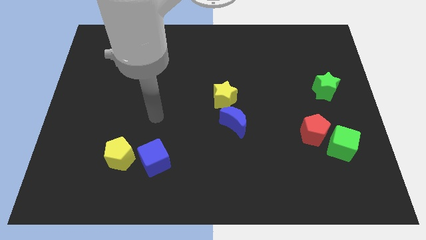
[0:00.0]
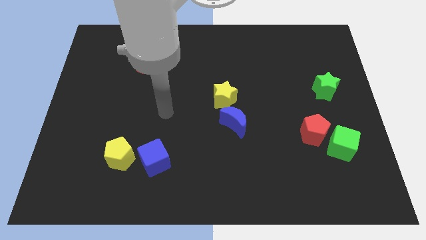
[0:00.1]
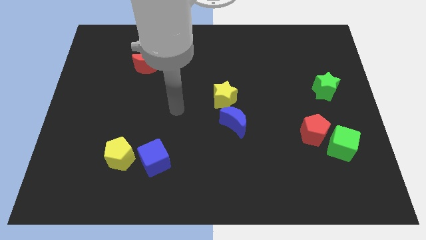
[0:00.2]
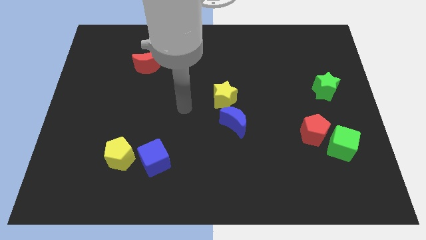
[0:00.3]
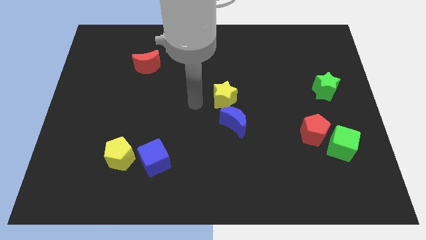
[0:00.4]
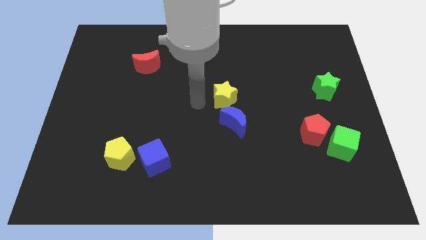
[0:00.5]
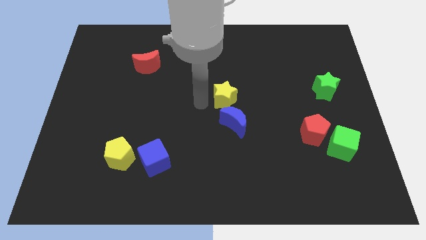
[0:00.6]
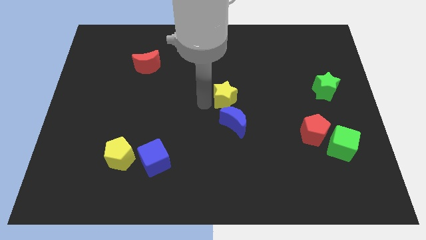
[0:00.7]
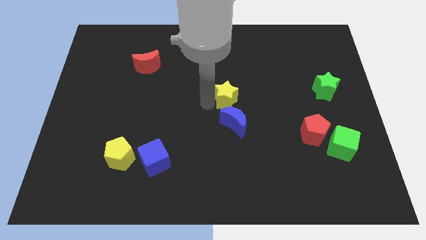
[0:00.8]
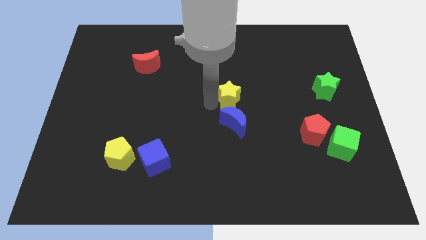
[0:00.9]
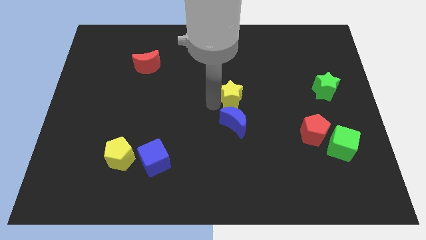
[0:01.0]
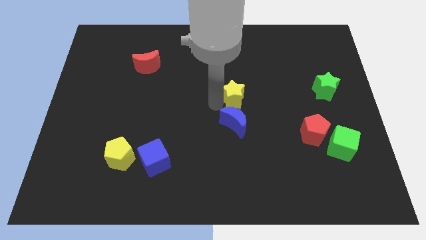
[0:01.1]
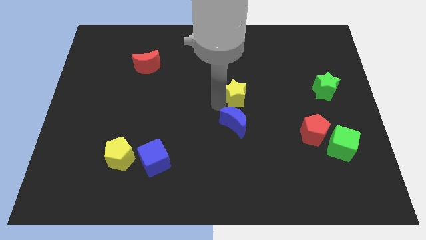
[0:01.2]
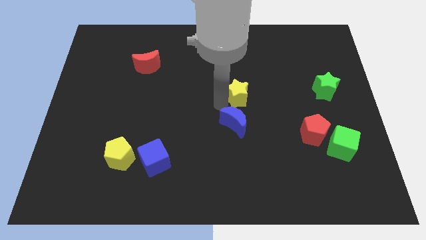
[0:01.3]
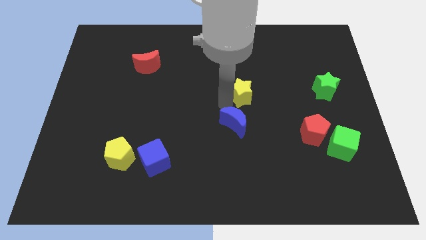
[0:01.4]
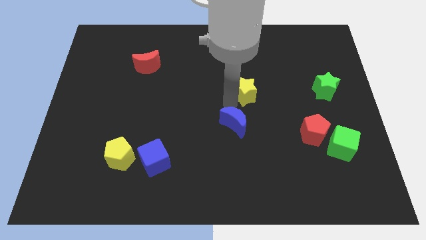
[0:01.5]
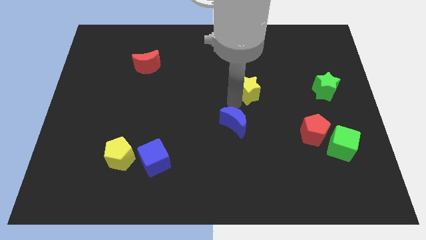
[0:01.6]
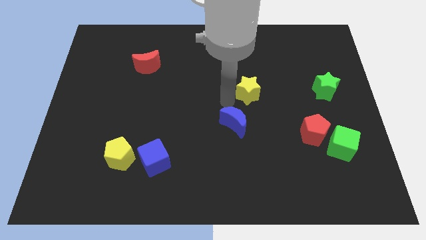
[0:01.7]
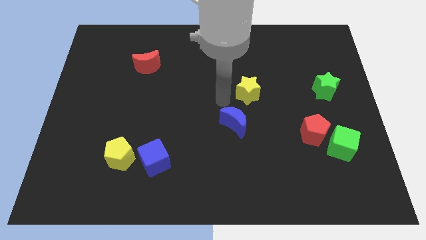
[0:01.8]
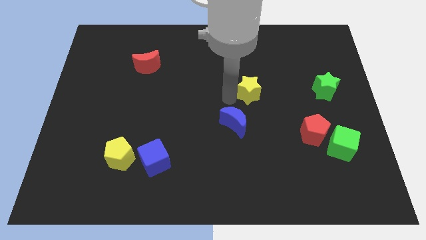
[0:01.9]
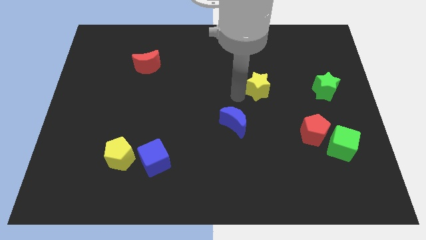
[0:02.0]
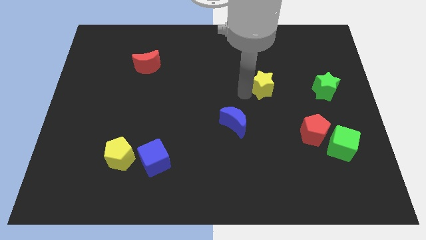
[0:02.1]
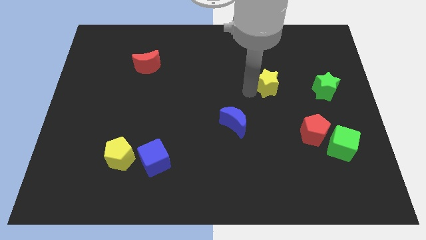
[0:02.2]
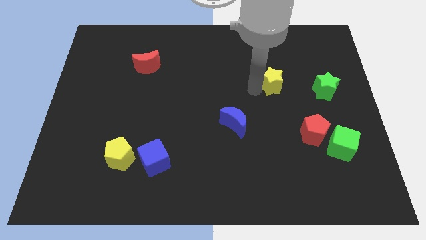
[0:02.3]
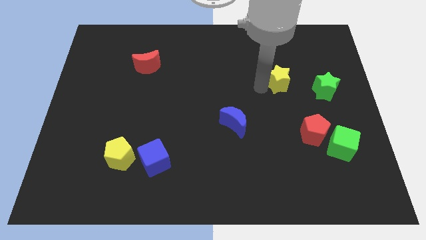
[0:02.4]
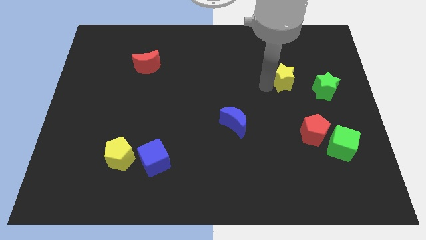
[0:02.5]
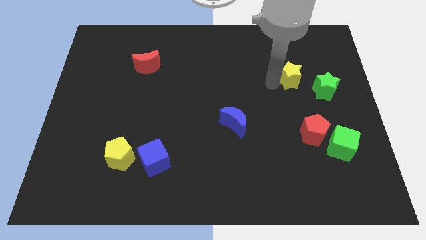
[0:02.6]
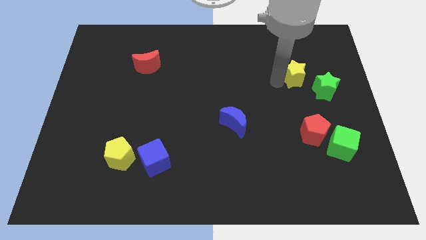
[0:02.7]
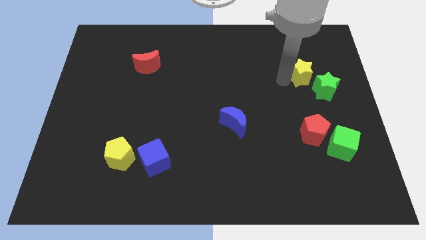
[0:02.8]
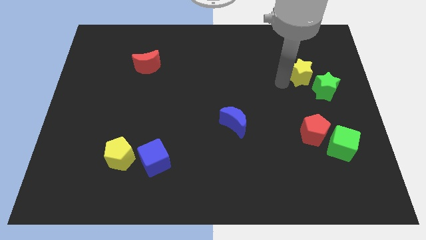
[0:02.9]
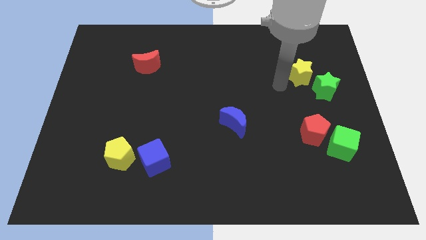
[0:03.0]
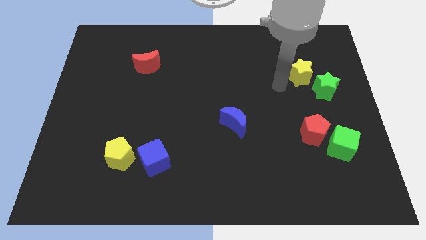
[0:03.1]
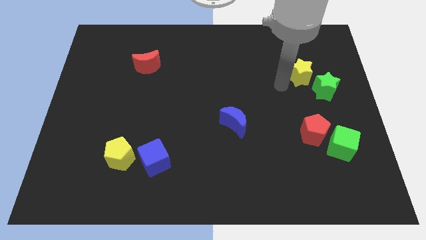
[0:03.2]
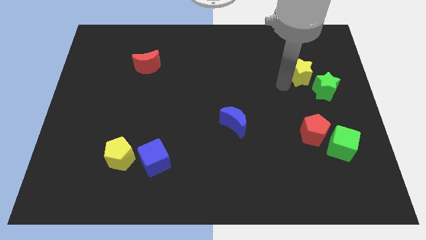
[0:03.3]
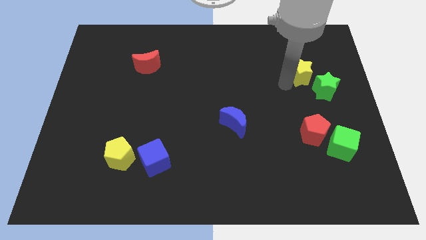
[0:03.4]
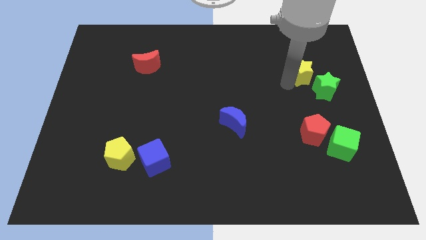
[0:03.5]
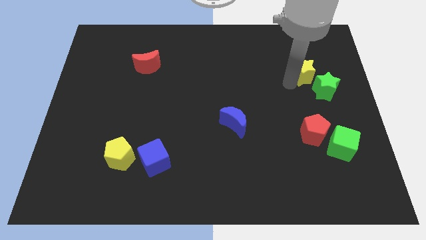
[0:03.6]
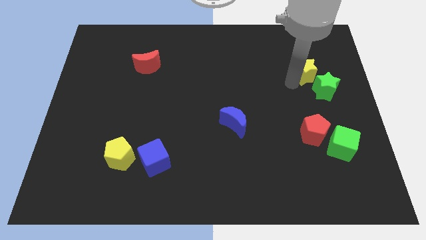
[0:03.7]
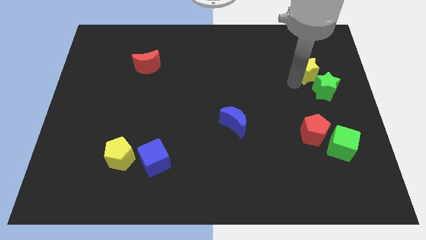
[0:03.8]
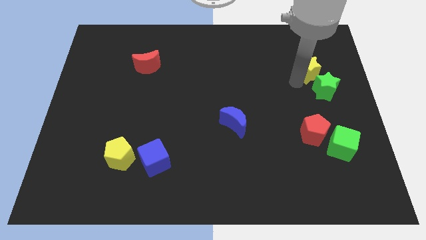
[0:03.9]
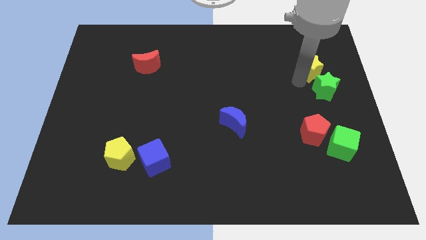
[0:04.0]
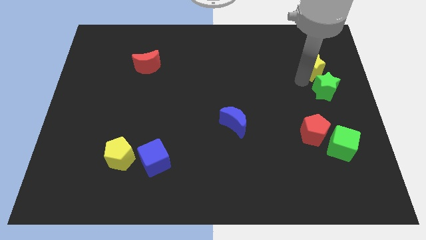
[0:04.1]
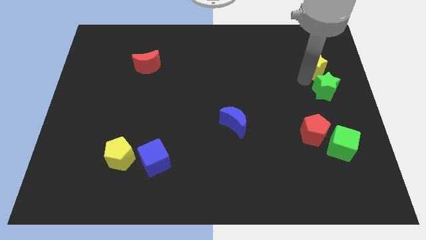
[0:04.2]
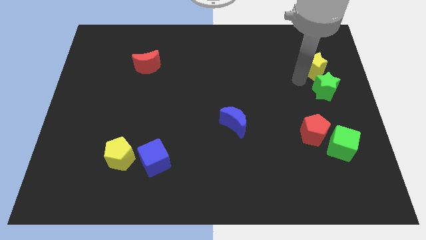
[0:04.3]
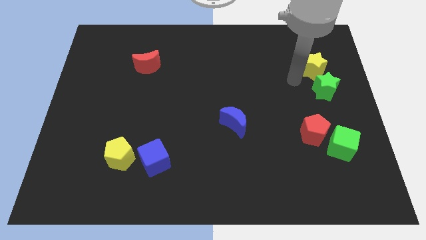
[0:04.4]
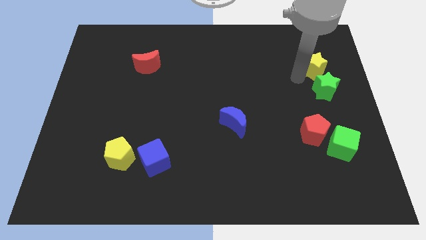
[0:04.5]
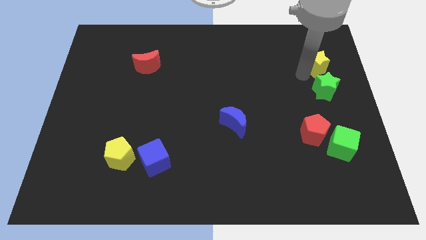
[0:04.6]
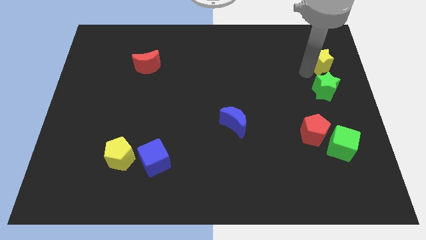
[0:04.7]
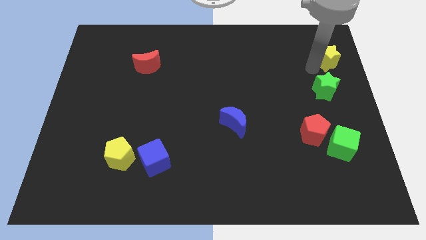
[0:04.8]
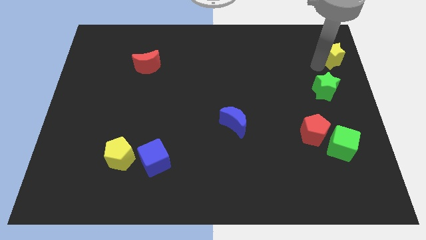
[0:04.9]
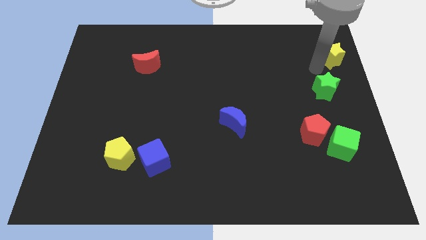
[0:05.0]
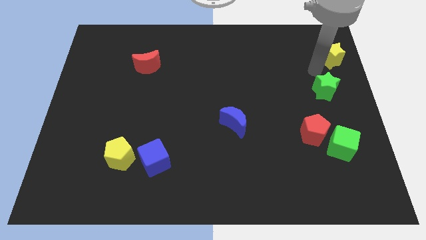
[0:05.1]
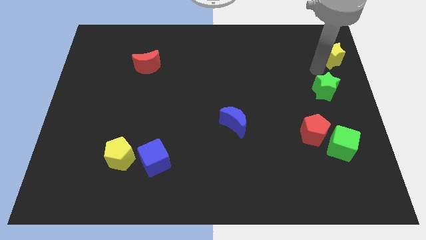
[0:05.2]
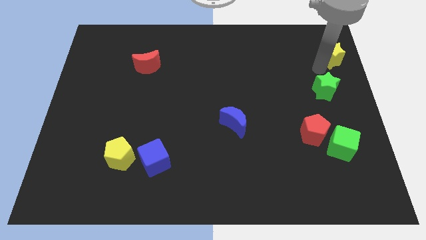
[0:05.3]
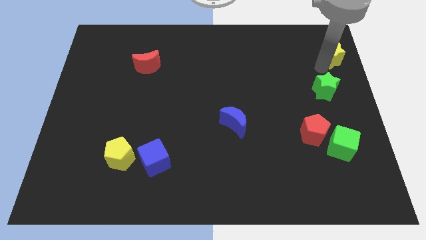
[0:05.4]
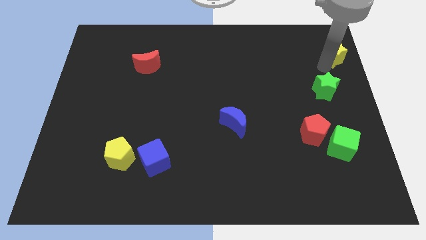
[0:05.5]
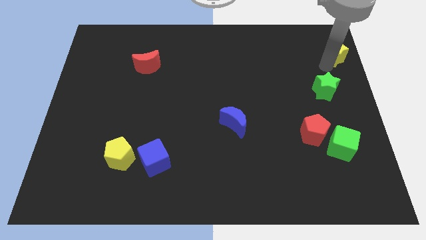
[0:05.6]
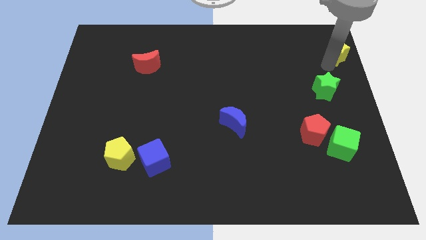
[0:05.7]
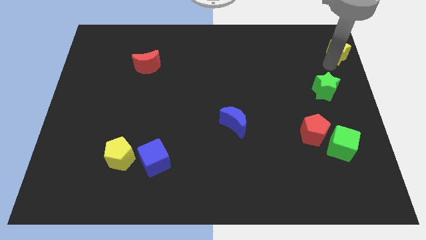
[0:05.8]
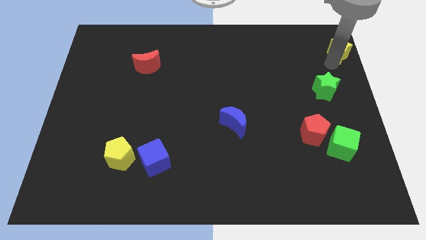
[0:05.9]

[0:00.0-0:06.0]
put the yellow star to the upper right corner
